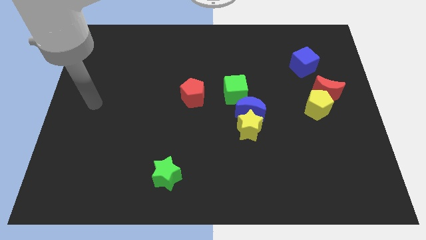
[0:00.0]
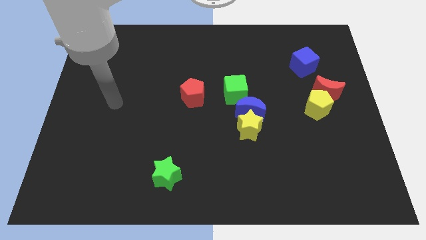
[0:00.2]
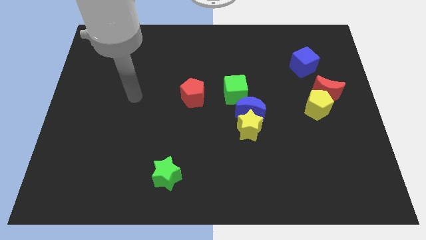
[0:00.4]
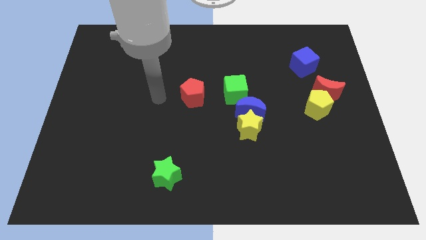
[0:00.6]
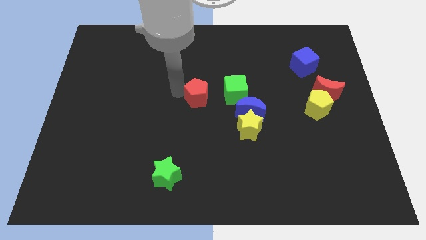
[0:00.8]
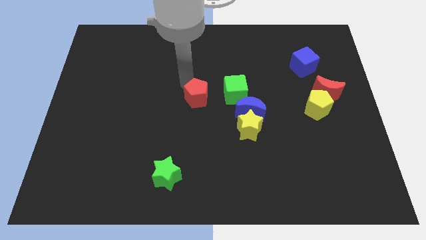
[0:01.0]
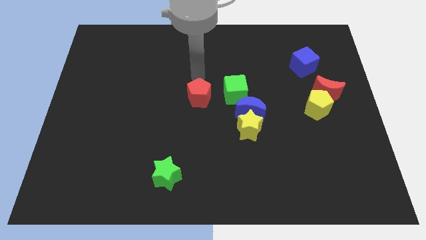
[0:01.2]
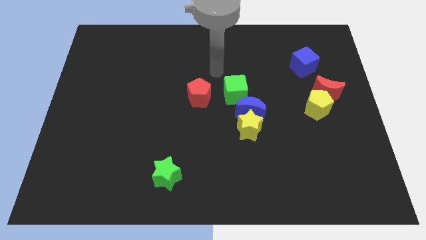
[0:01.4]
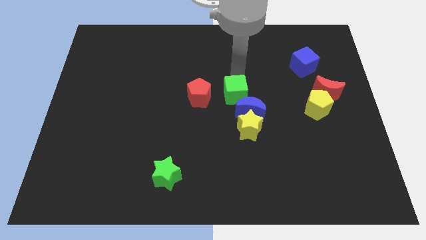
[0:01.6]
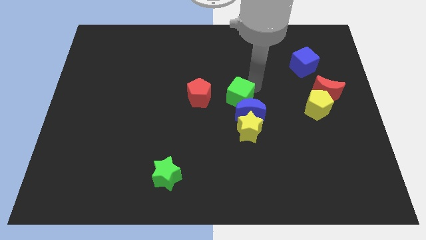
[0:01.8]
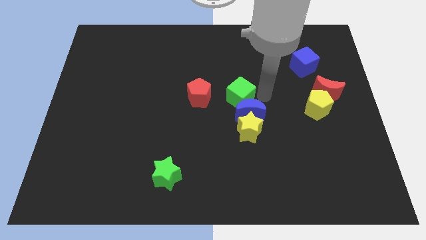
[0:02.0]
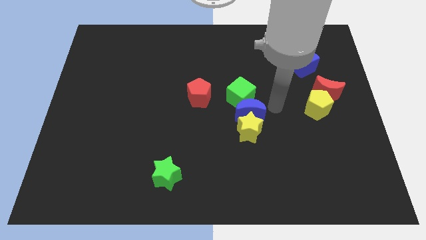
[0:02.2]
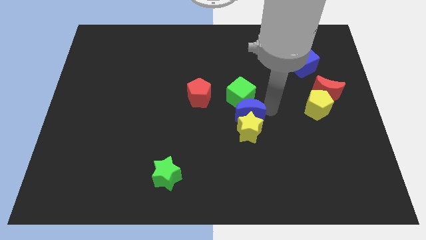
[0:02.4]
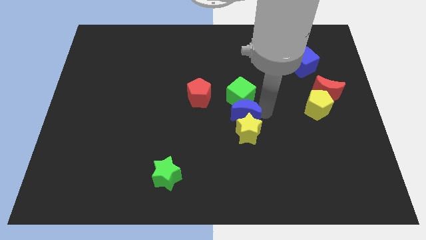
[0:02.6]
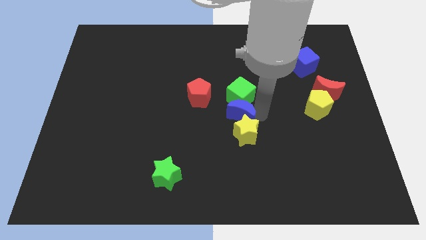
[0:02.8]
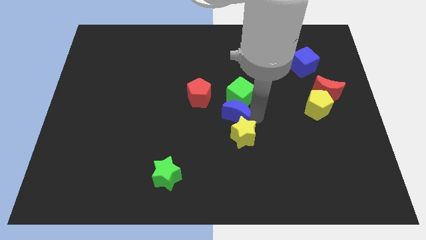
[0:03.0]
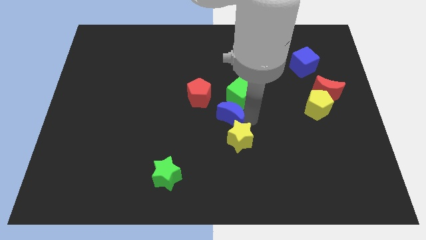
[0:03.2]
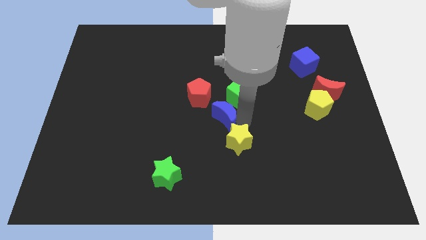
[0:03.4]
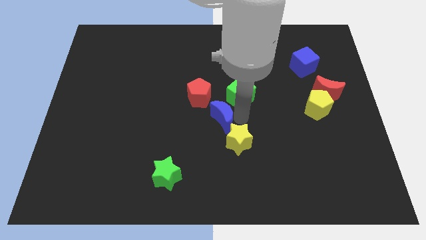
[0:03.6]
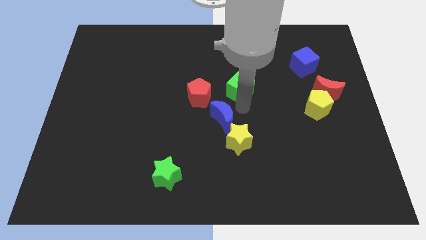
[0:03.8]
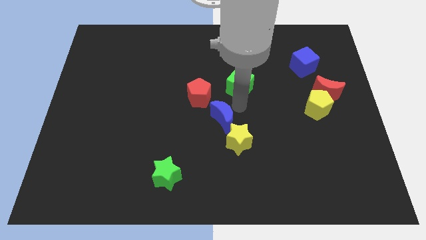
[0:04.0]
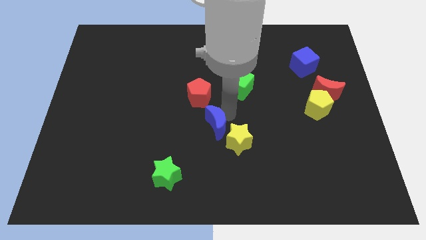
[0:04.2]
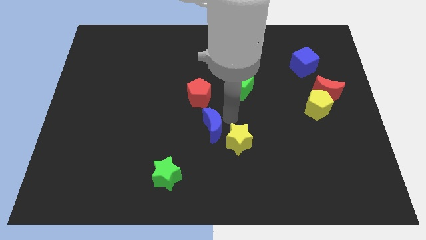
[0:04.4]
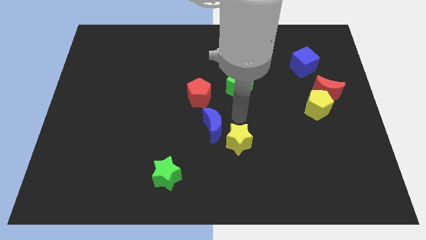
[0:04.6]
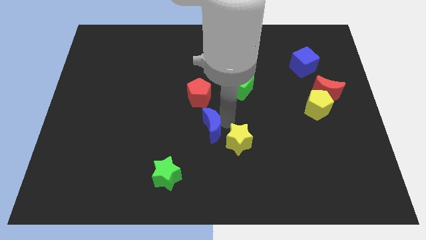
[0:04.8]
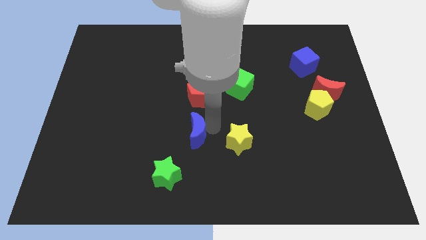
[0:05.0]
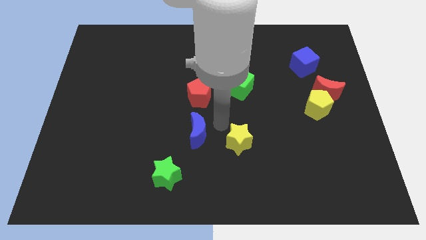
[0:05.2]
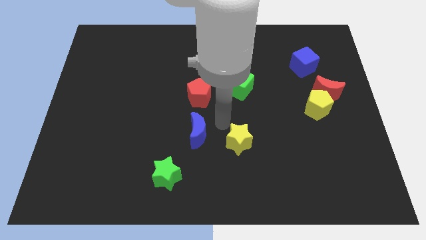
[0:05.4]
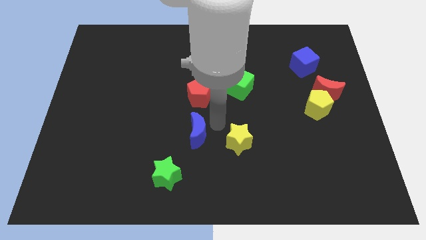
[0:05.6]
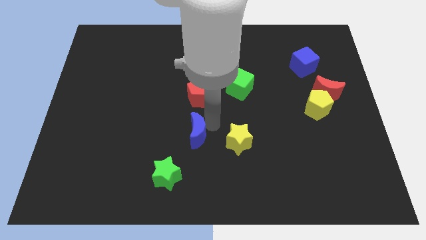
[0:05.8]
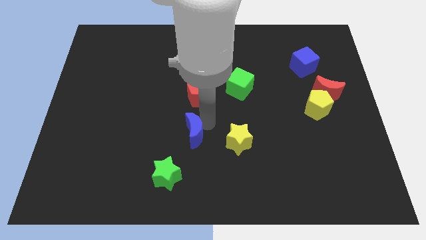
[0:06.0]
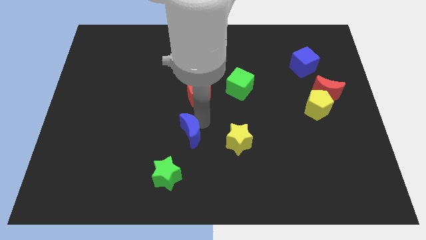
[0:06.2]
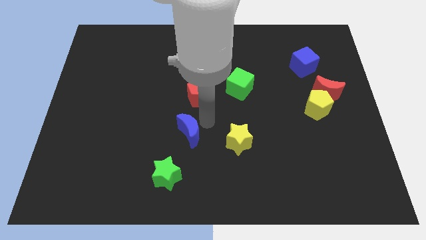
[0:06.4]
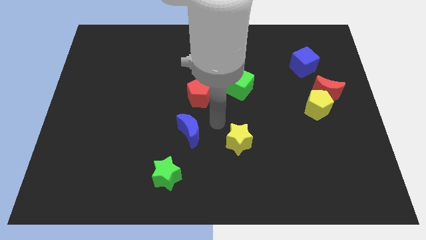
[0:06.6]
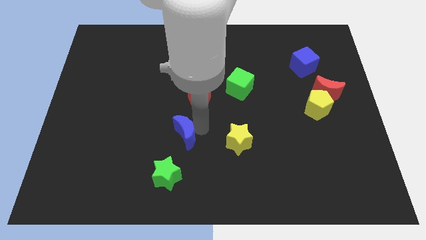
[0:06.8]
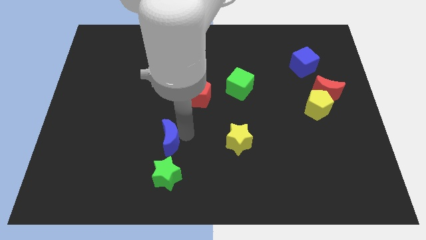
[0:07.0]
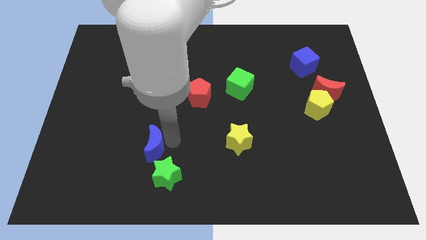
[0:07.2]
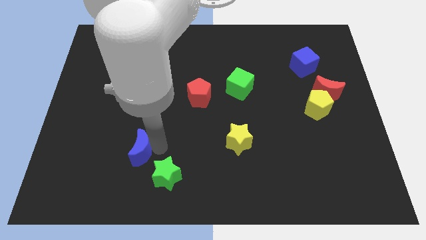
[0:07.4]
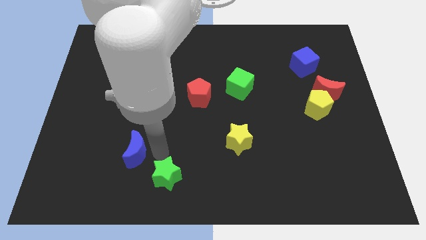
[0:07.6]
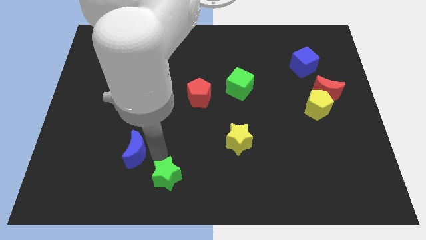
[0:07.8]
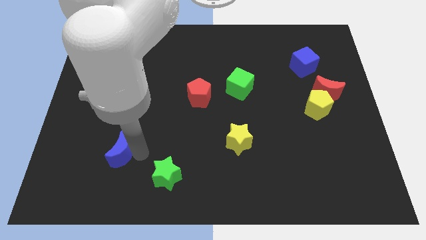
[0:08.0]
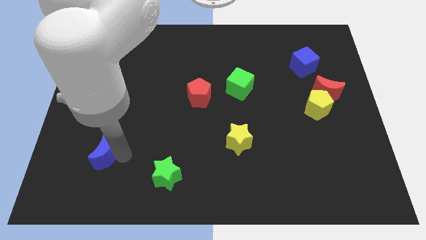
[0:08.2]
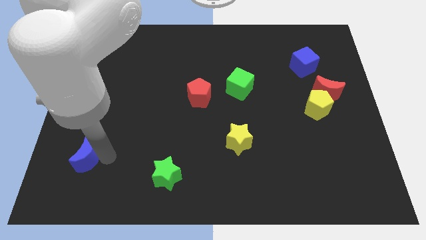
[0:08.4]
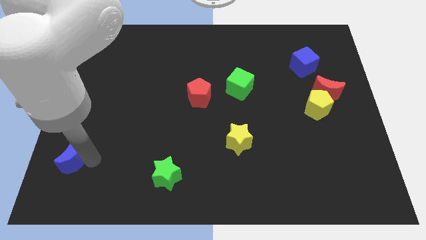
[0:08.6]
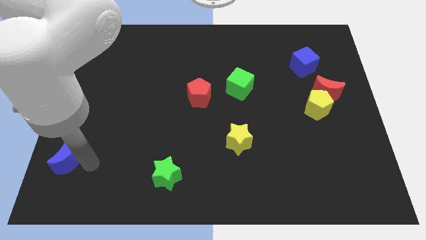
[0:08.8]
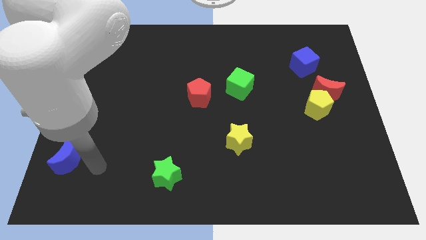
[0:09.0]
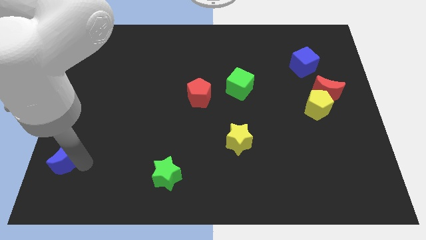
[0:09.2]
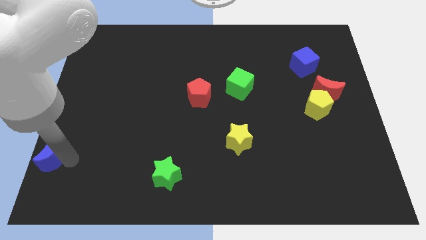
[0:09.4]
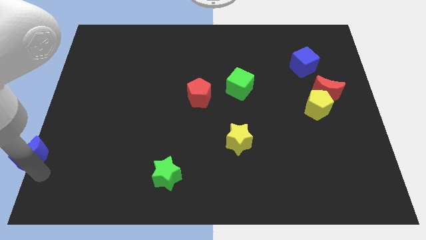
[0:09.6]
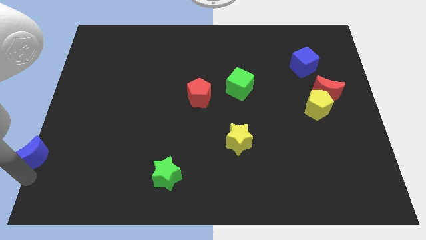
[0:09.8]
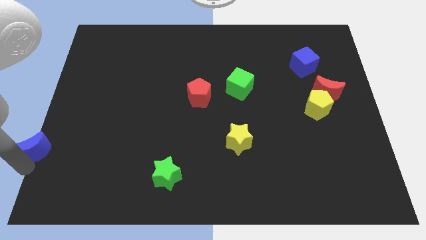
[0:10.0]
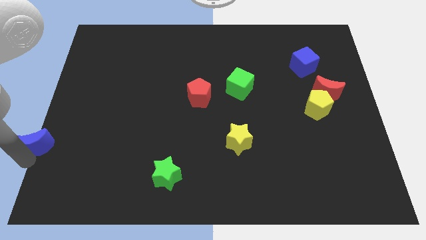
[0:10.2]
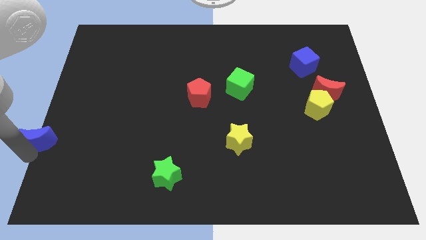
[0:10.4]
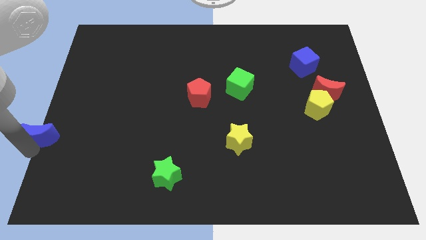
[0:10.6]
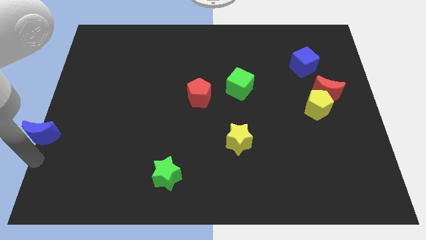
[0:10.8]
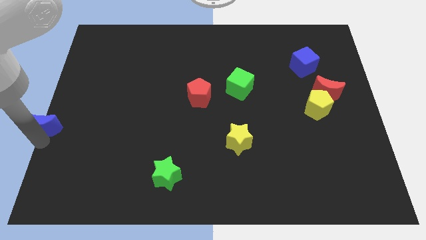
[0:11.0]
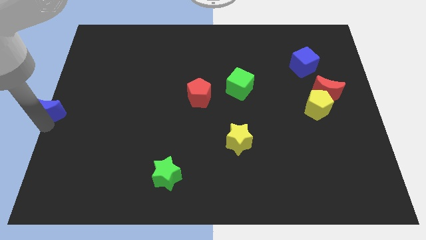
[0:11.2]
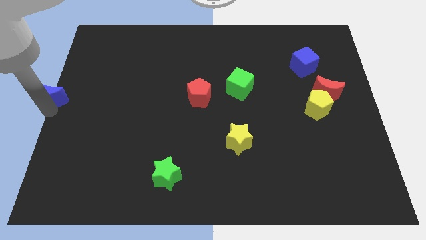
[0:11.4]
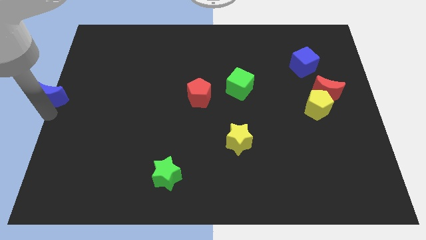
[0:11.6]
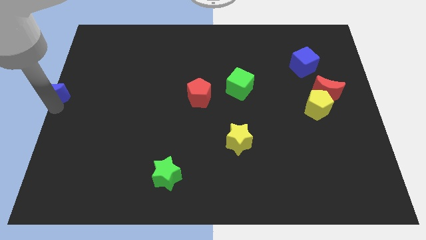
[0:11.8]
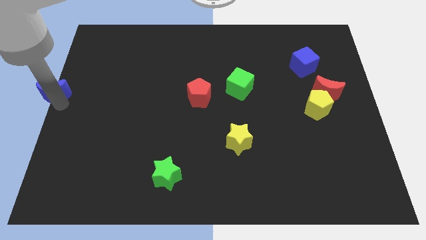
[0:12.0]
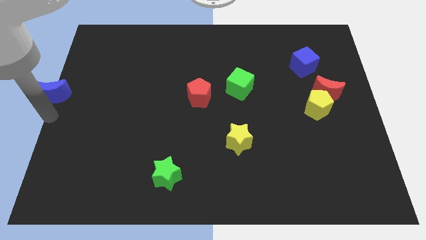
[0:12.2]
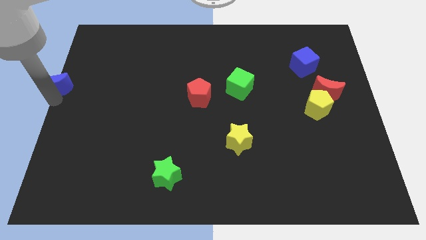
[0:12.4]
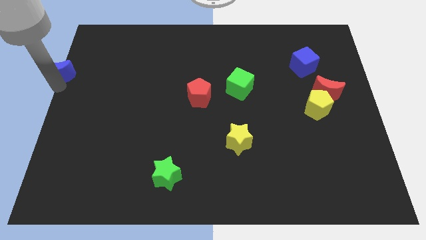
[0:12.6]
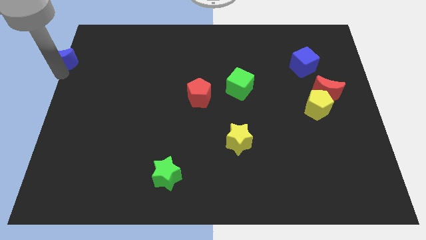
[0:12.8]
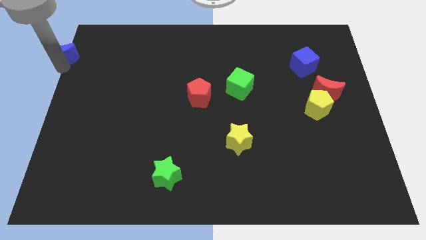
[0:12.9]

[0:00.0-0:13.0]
move the blue moon to the top left corner

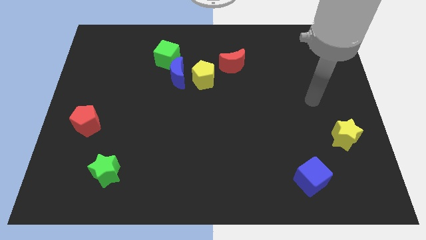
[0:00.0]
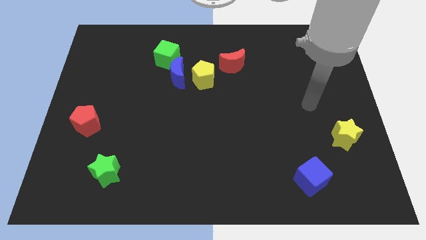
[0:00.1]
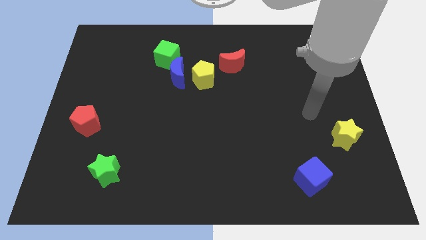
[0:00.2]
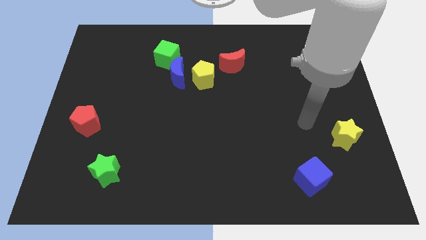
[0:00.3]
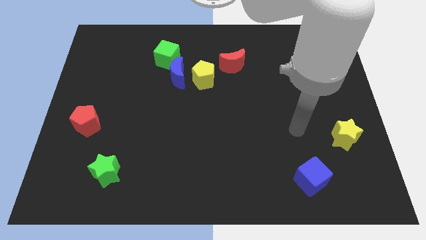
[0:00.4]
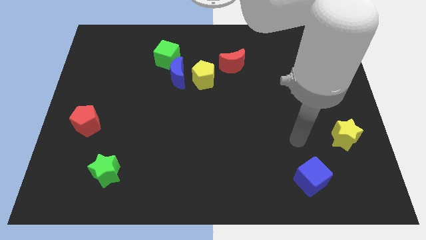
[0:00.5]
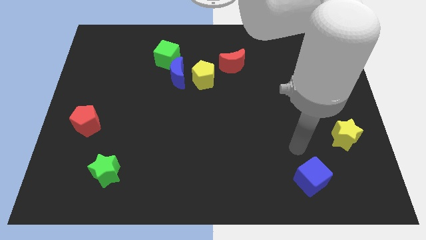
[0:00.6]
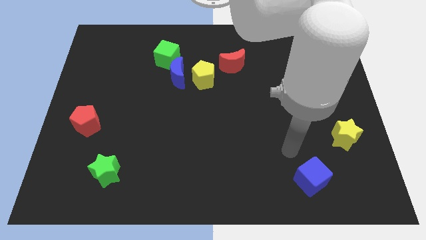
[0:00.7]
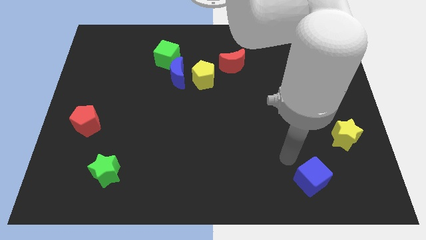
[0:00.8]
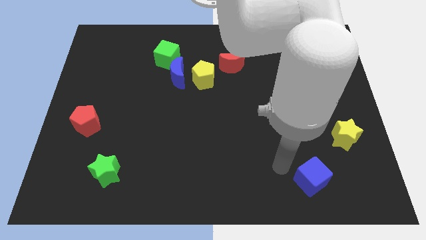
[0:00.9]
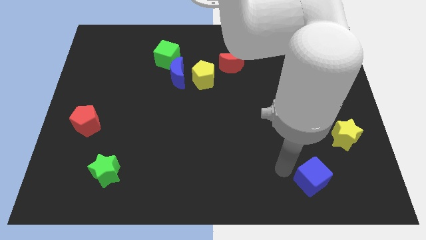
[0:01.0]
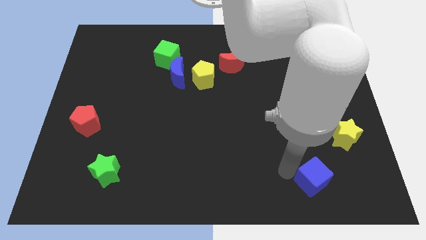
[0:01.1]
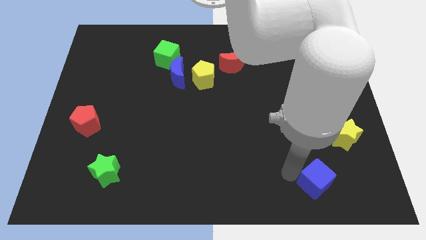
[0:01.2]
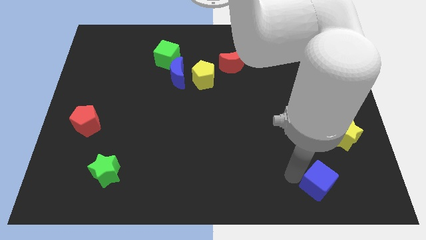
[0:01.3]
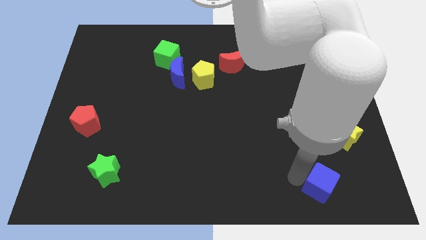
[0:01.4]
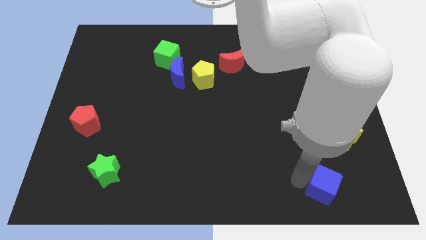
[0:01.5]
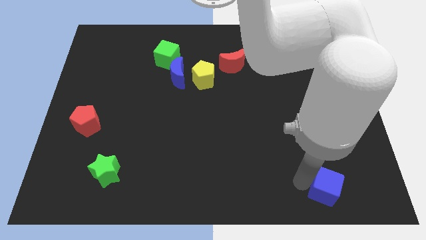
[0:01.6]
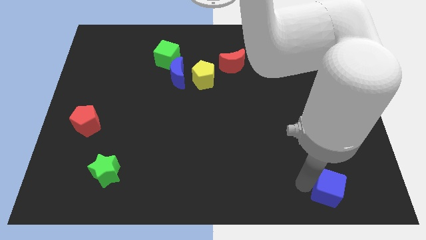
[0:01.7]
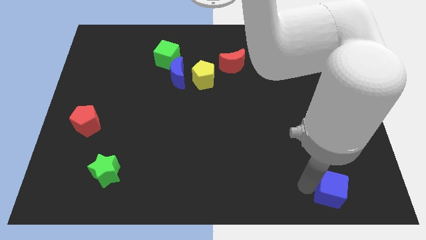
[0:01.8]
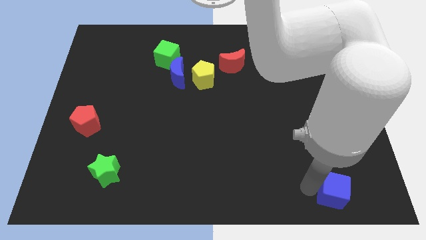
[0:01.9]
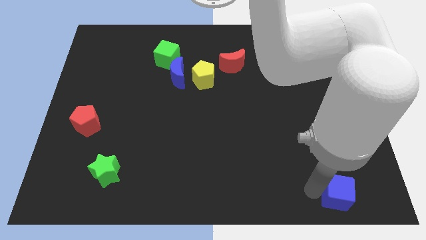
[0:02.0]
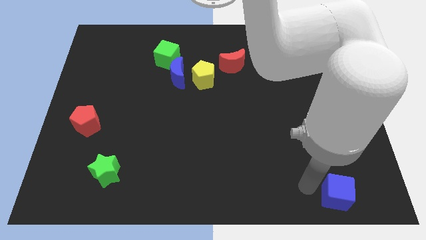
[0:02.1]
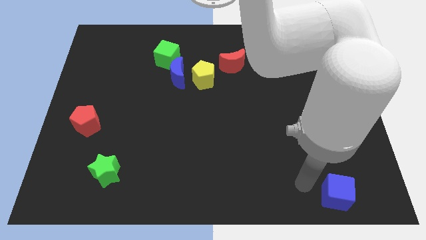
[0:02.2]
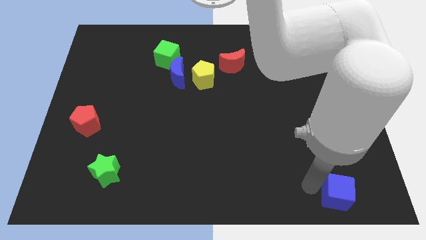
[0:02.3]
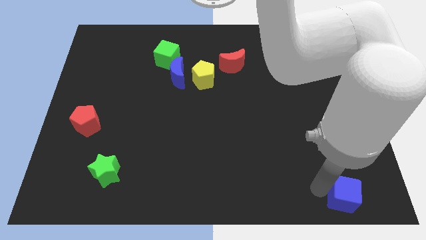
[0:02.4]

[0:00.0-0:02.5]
put the blue cube to the bottom right
